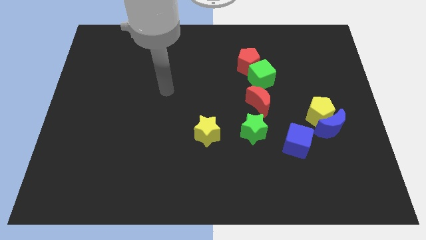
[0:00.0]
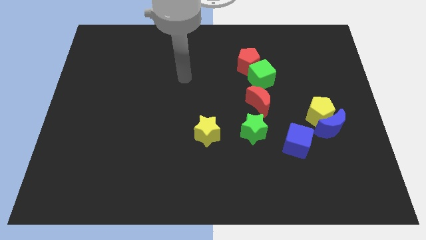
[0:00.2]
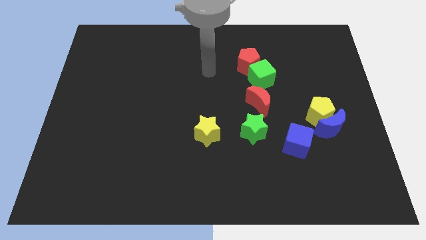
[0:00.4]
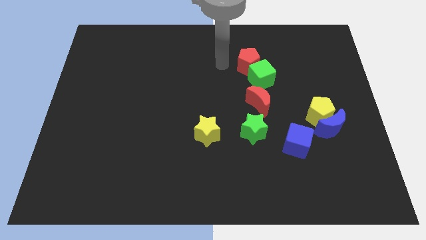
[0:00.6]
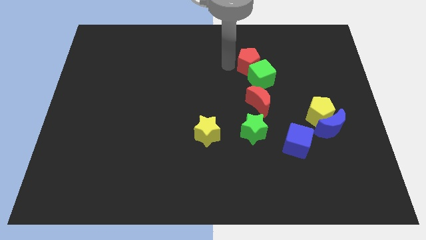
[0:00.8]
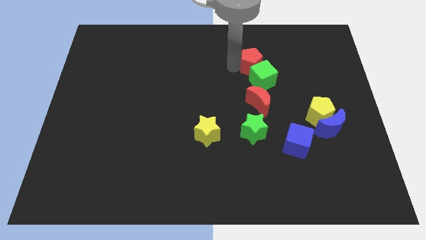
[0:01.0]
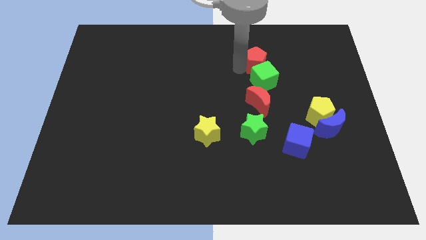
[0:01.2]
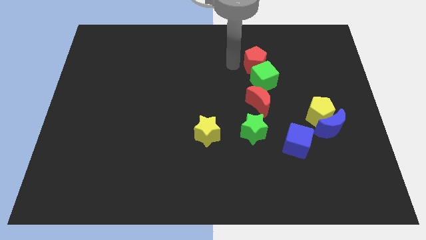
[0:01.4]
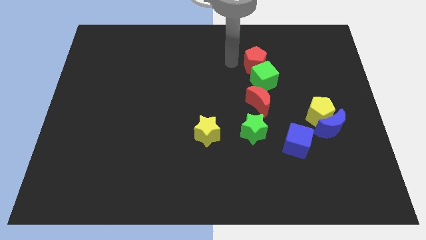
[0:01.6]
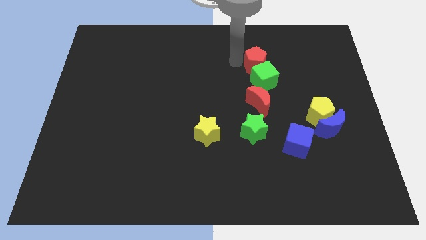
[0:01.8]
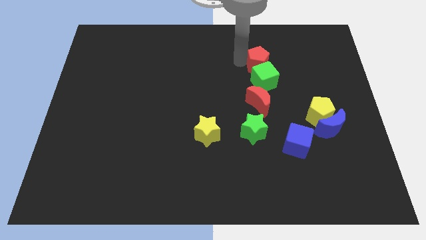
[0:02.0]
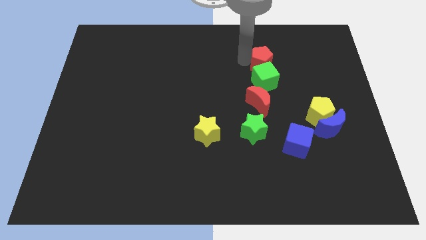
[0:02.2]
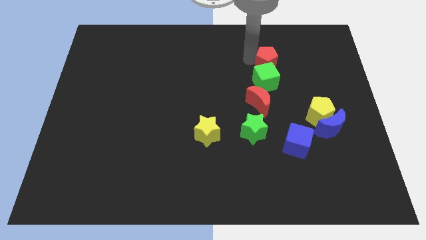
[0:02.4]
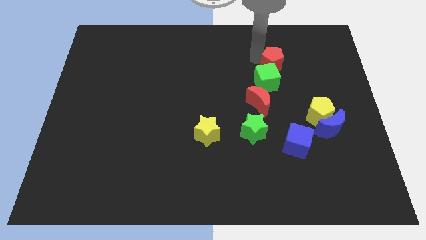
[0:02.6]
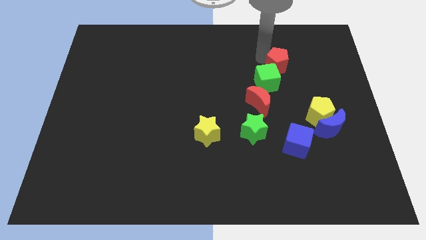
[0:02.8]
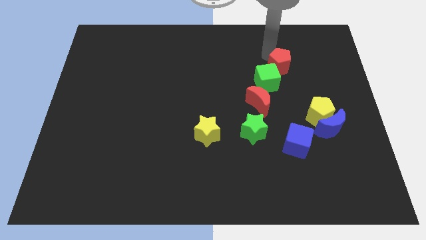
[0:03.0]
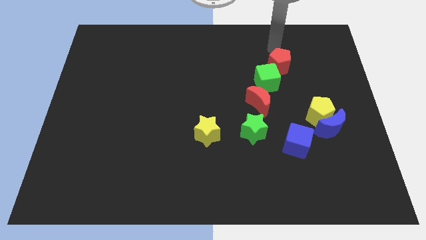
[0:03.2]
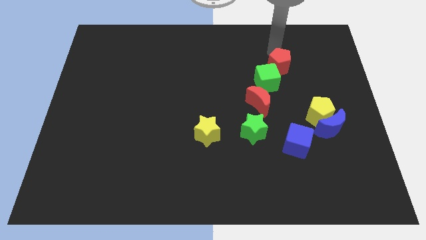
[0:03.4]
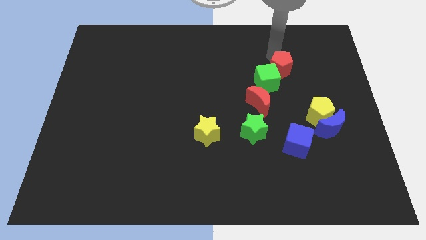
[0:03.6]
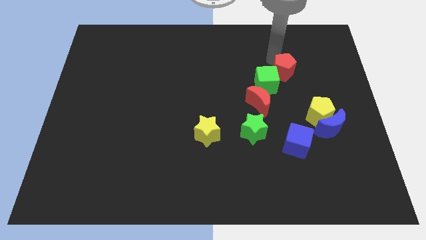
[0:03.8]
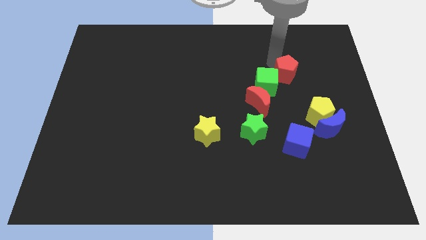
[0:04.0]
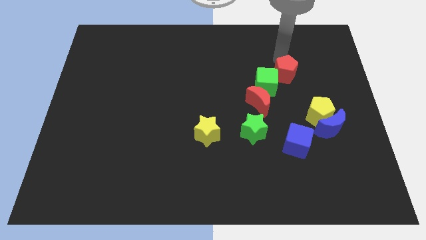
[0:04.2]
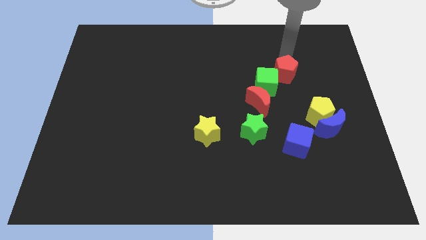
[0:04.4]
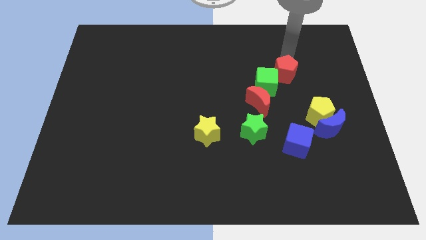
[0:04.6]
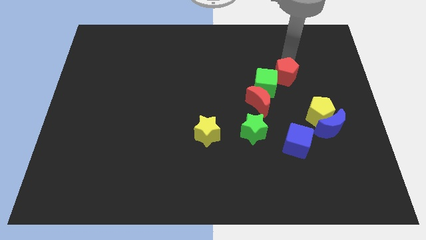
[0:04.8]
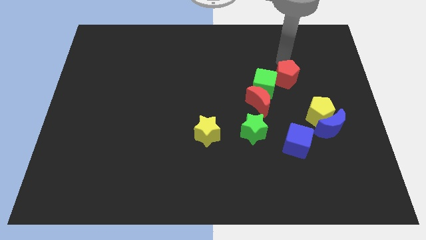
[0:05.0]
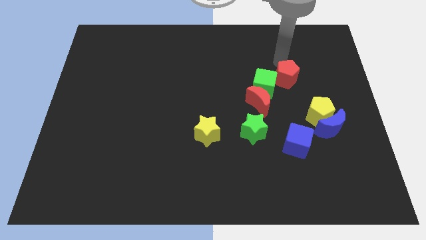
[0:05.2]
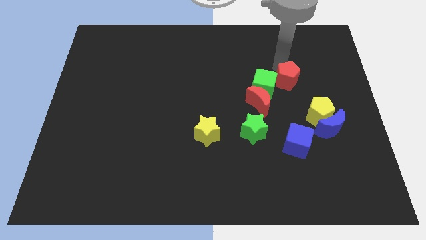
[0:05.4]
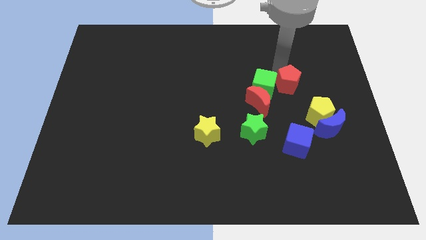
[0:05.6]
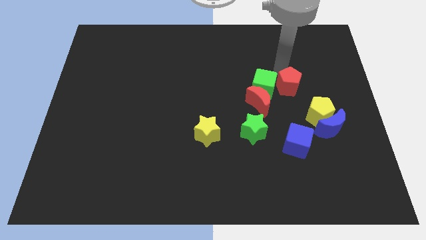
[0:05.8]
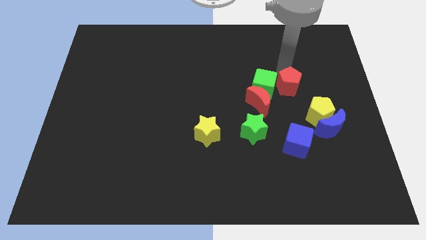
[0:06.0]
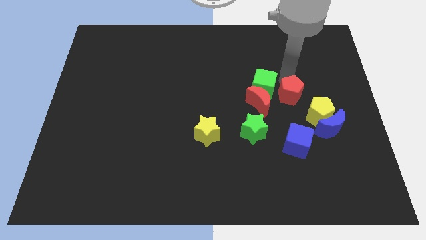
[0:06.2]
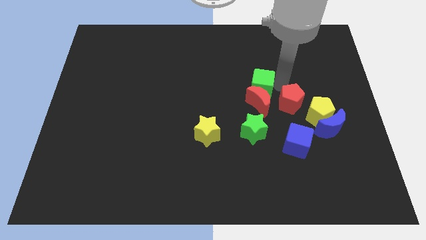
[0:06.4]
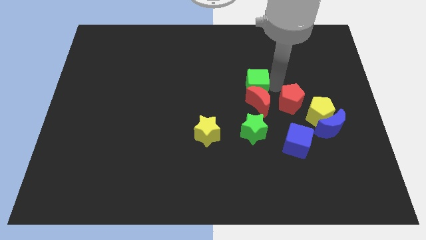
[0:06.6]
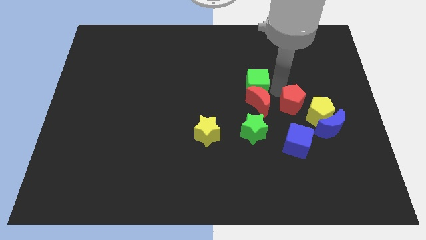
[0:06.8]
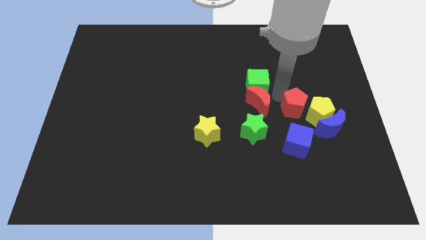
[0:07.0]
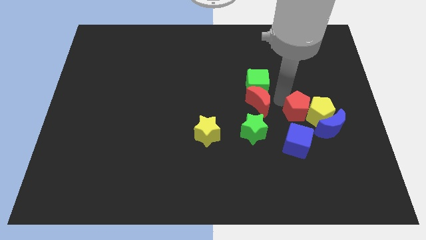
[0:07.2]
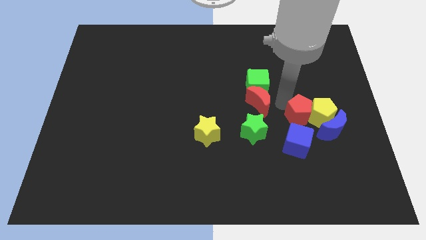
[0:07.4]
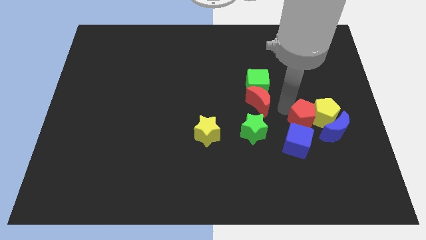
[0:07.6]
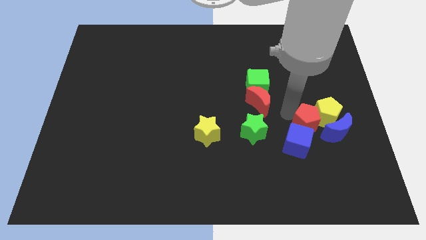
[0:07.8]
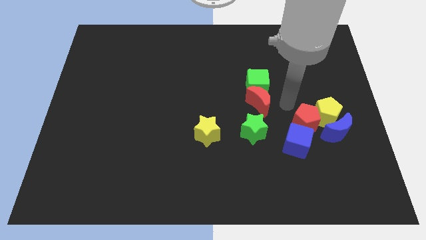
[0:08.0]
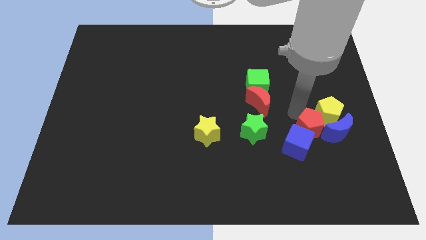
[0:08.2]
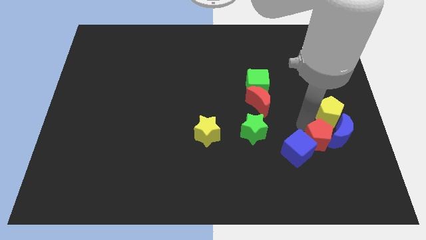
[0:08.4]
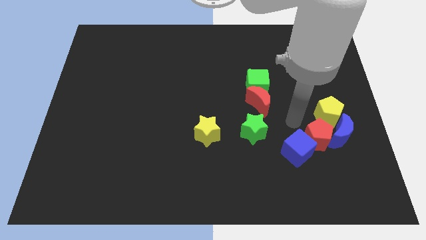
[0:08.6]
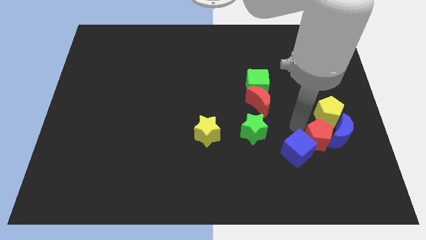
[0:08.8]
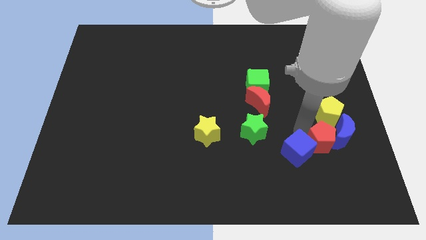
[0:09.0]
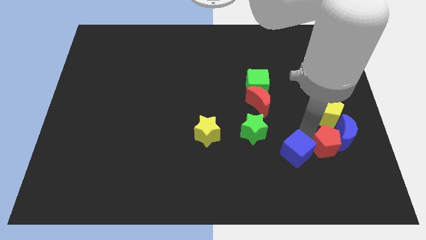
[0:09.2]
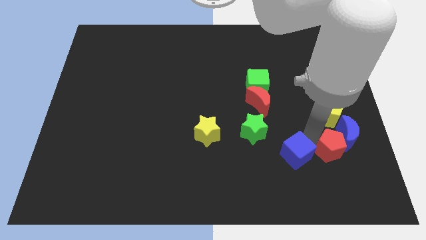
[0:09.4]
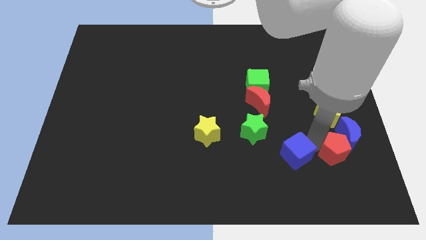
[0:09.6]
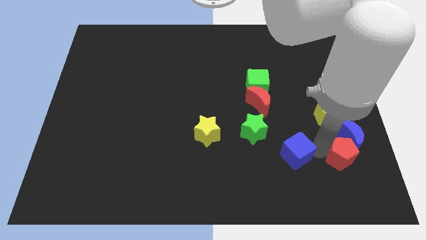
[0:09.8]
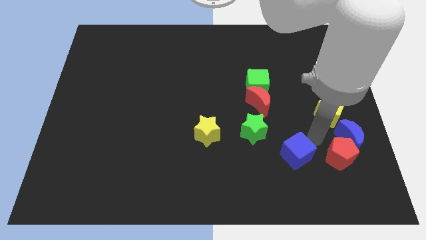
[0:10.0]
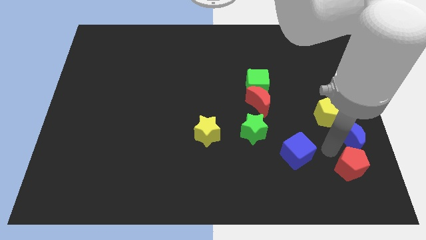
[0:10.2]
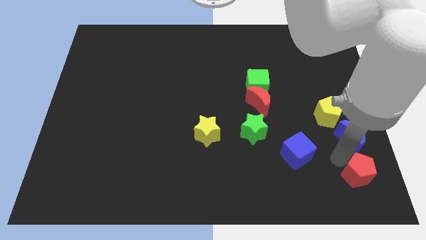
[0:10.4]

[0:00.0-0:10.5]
move the red pentagon to the bottom right

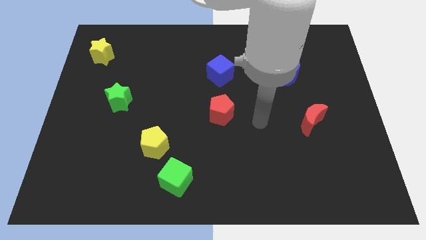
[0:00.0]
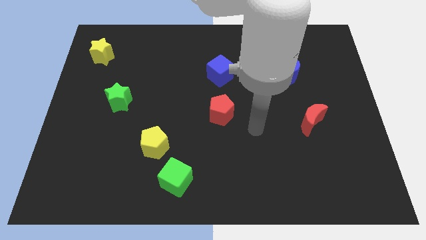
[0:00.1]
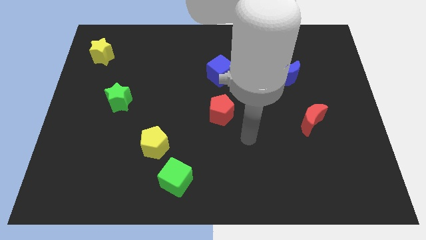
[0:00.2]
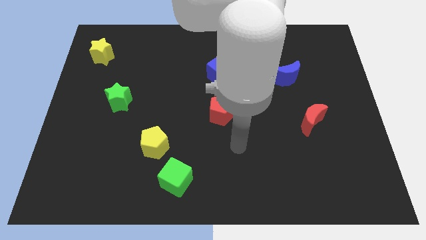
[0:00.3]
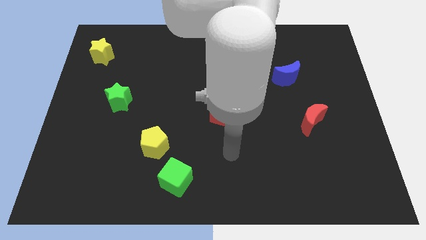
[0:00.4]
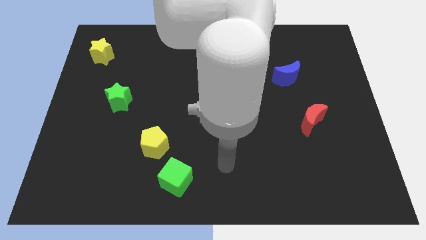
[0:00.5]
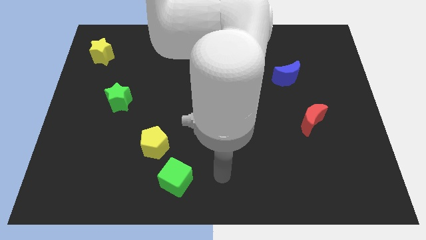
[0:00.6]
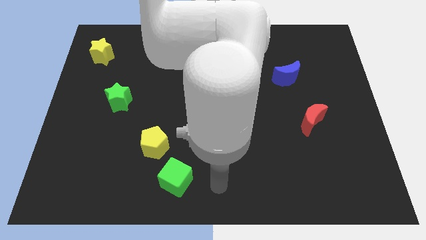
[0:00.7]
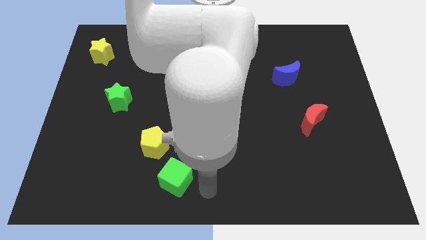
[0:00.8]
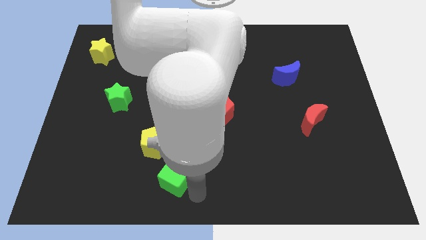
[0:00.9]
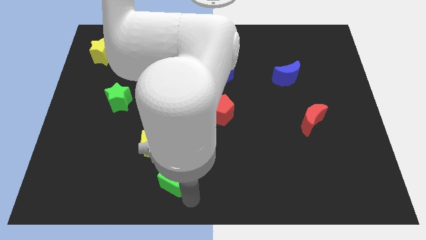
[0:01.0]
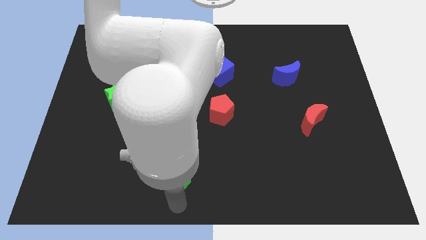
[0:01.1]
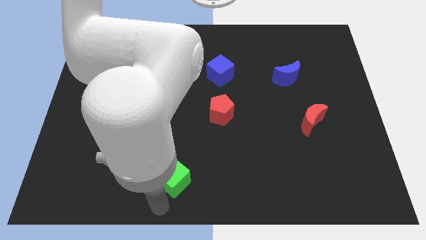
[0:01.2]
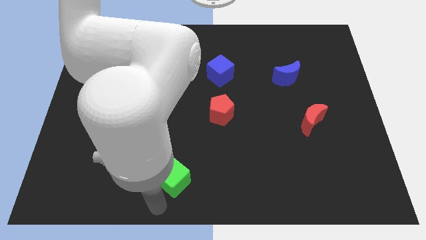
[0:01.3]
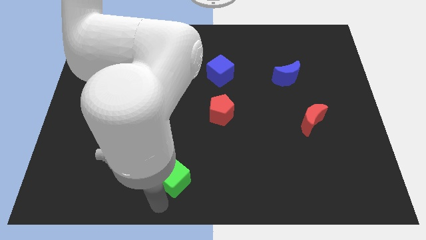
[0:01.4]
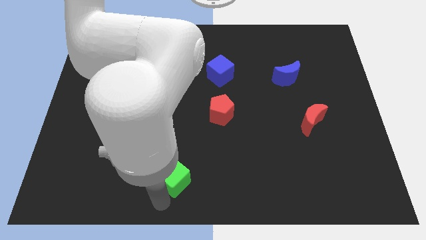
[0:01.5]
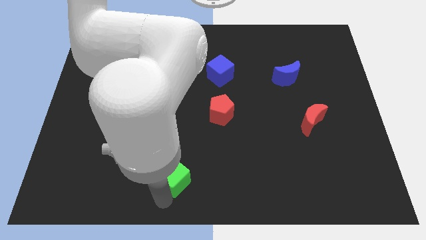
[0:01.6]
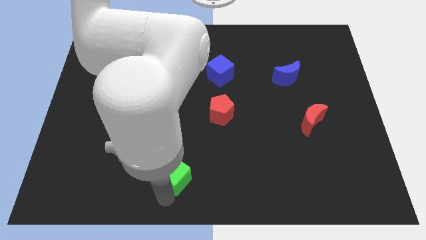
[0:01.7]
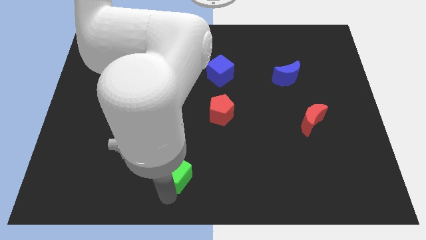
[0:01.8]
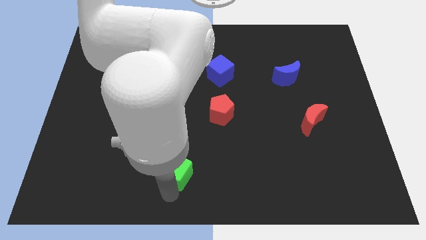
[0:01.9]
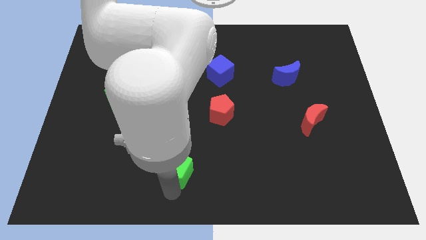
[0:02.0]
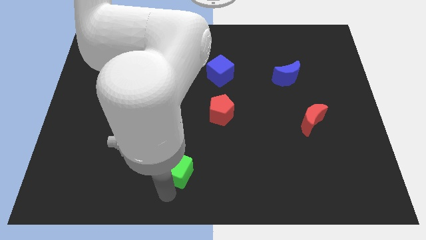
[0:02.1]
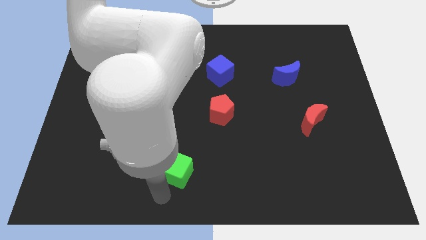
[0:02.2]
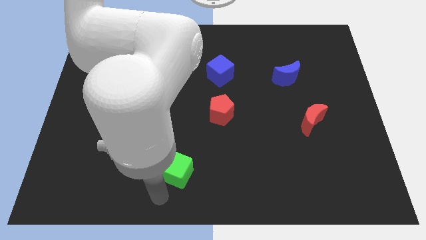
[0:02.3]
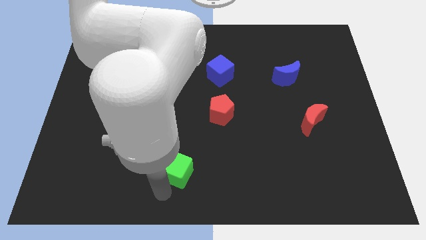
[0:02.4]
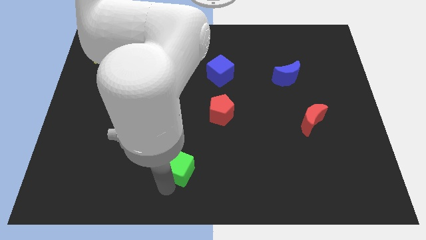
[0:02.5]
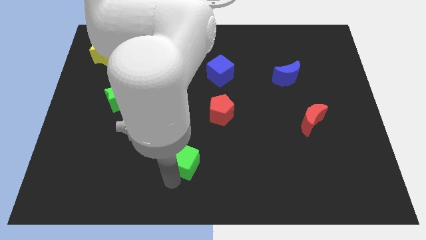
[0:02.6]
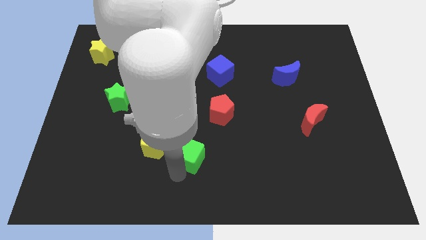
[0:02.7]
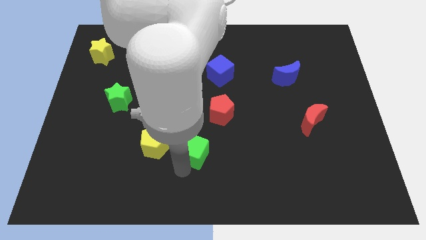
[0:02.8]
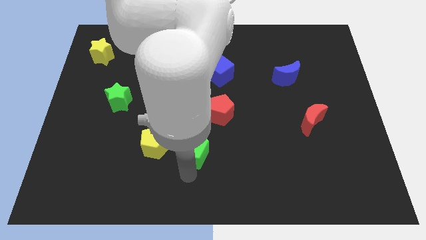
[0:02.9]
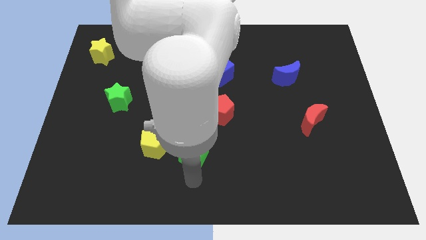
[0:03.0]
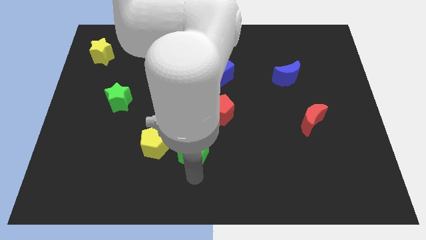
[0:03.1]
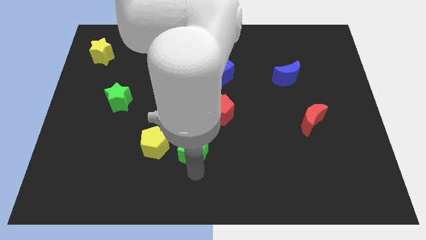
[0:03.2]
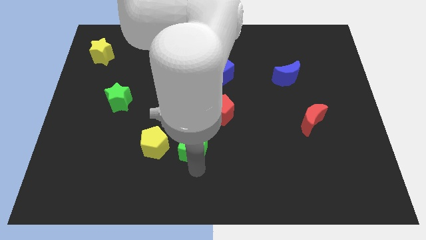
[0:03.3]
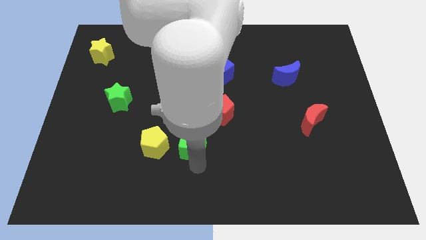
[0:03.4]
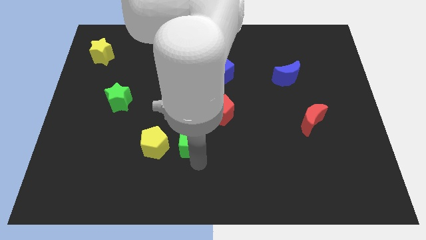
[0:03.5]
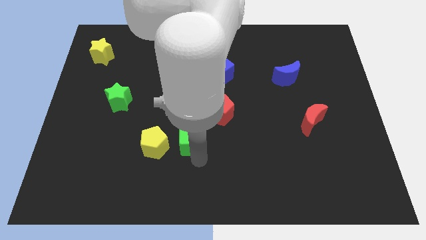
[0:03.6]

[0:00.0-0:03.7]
move the green cube to the center of the board
